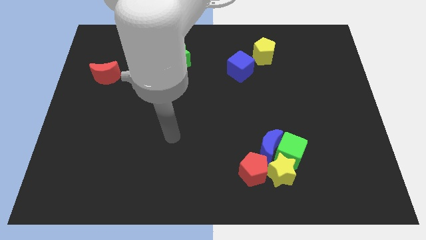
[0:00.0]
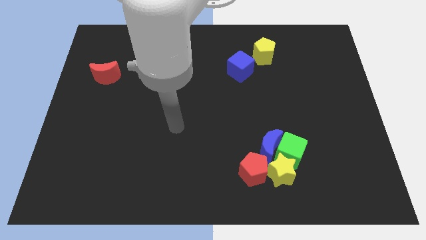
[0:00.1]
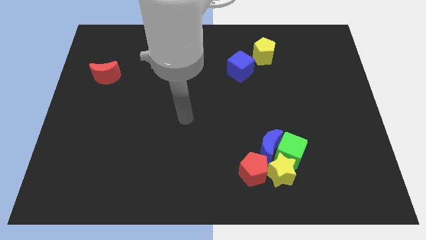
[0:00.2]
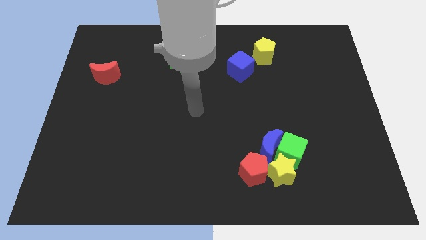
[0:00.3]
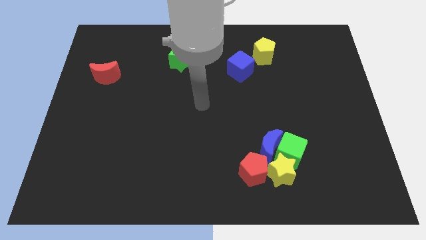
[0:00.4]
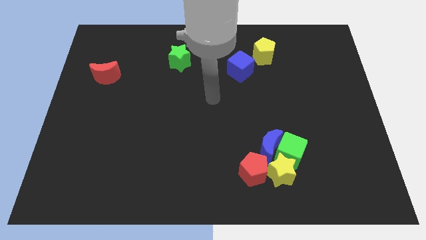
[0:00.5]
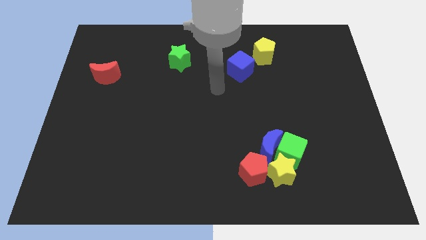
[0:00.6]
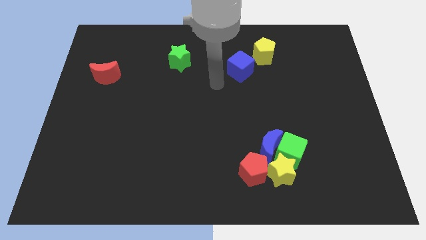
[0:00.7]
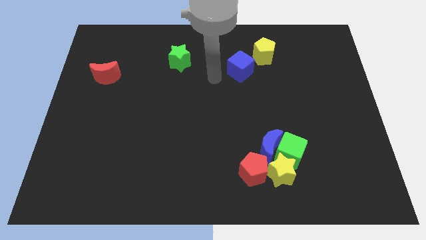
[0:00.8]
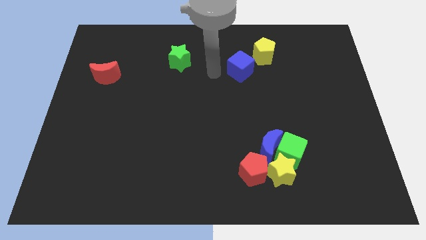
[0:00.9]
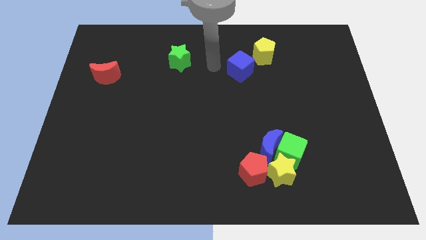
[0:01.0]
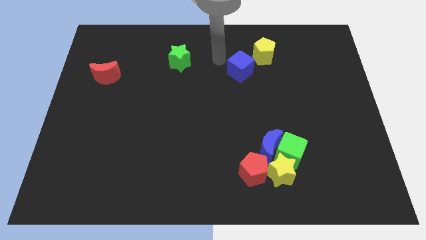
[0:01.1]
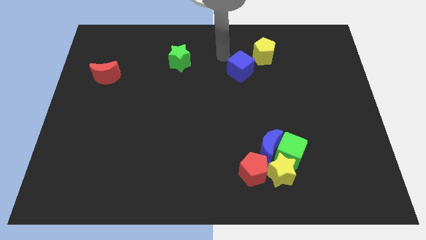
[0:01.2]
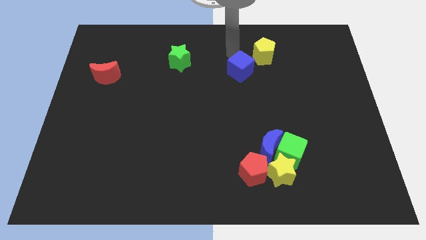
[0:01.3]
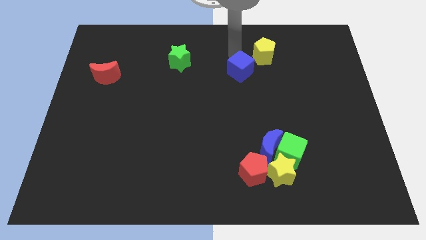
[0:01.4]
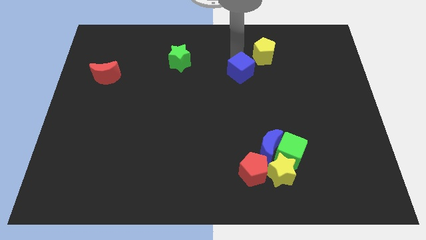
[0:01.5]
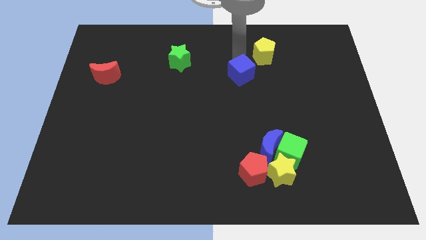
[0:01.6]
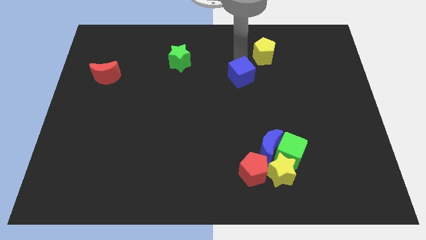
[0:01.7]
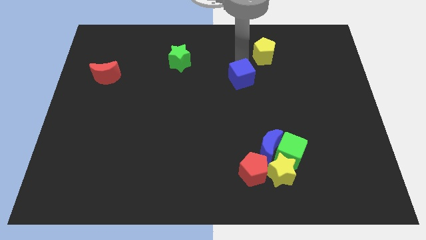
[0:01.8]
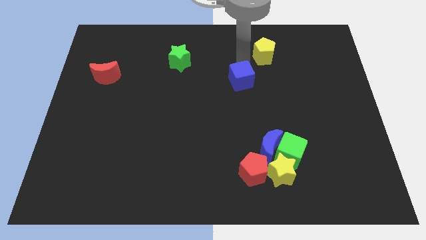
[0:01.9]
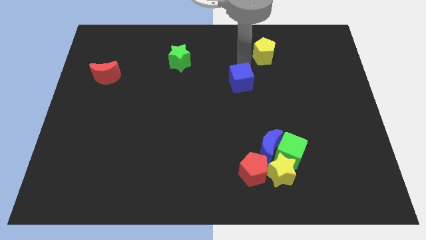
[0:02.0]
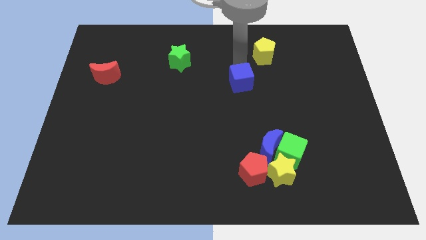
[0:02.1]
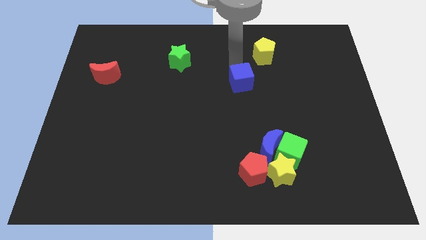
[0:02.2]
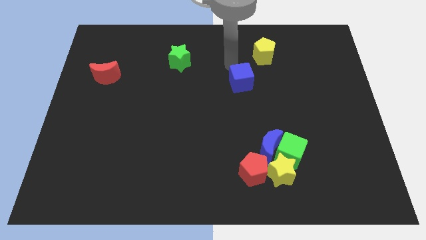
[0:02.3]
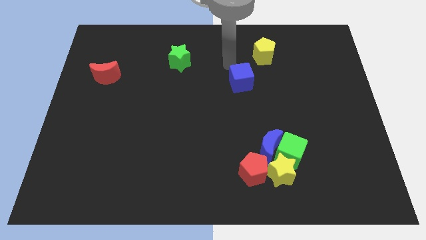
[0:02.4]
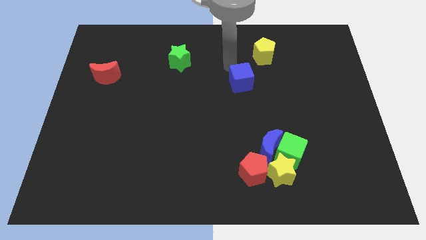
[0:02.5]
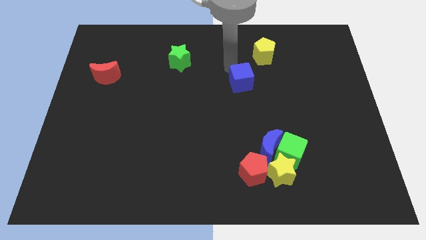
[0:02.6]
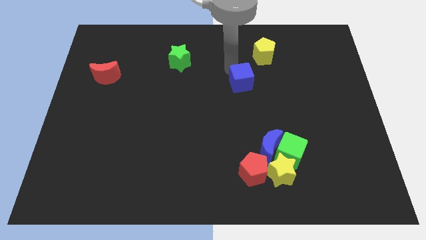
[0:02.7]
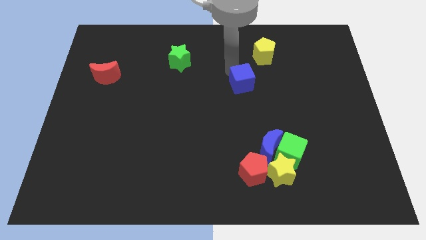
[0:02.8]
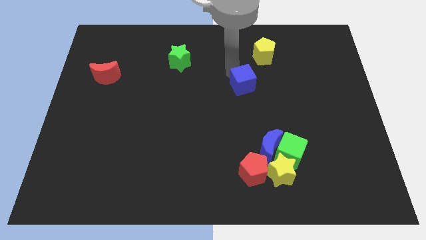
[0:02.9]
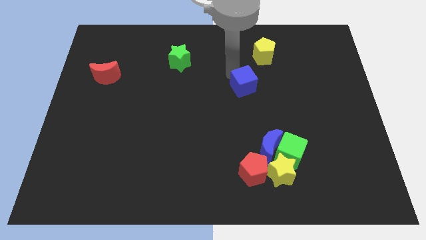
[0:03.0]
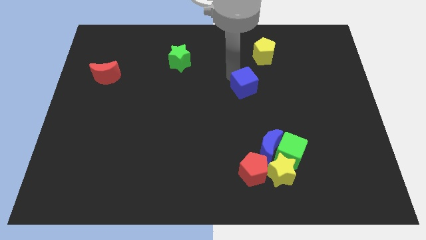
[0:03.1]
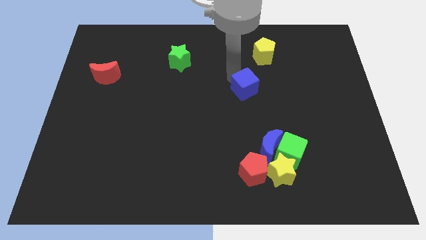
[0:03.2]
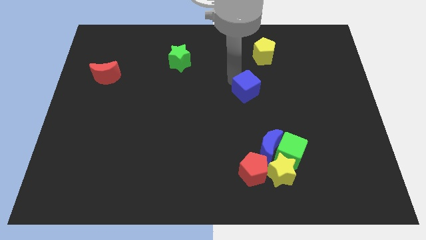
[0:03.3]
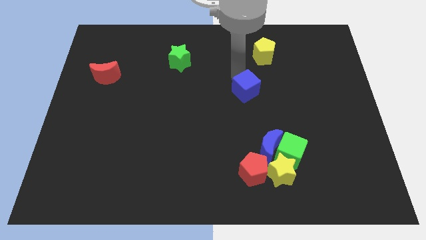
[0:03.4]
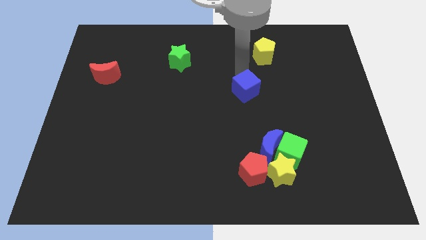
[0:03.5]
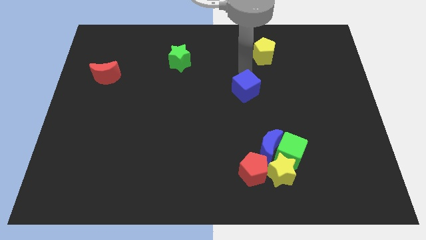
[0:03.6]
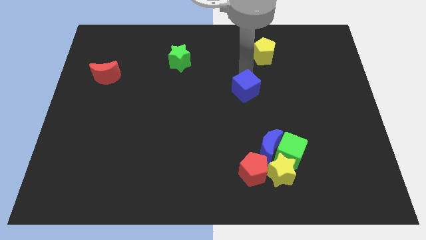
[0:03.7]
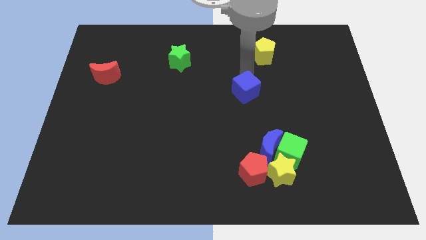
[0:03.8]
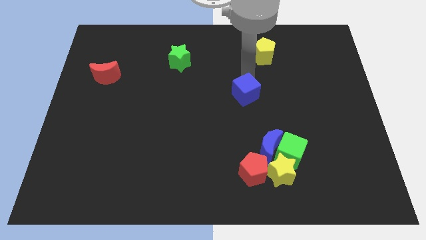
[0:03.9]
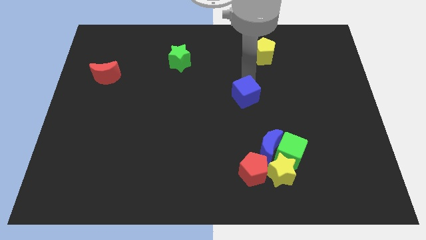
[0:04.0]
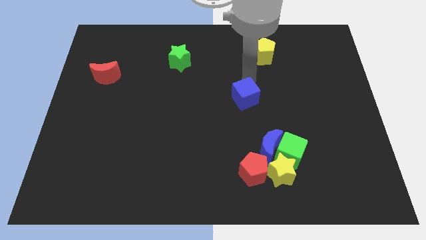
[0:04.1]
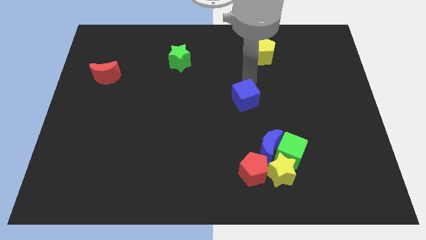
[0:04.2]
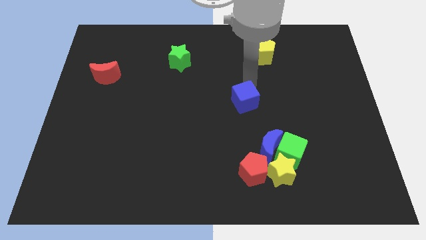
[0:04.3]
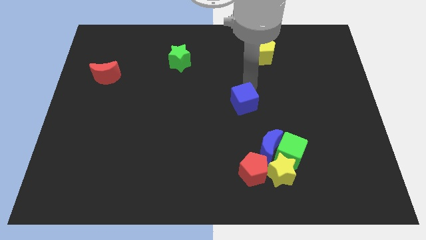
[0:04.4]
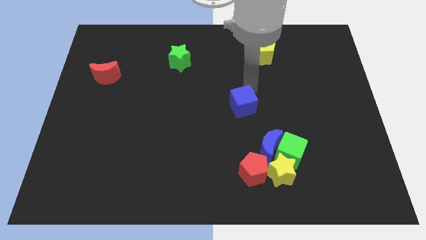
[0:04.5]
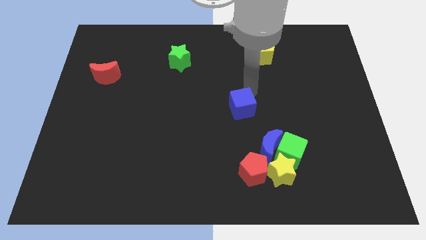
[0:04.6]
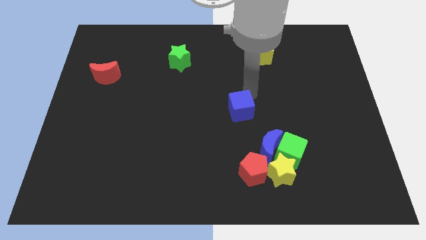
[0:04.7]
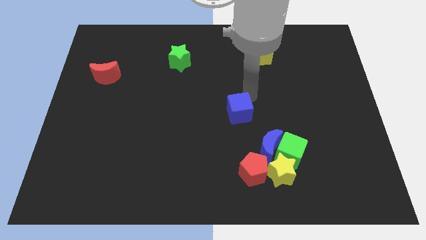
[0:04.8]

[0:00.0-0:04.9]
put the blue cube to the top side of the red pentagon

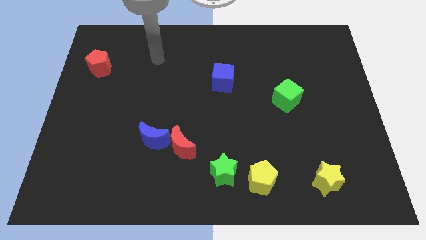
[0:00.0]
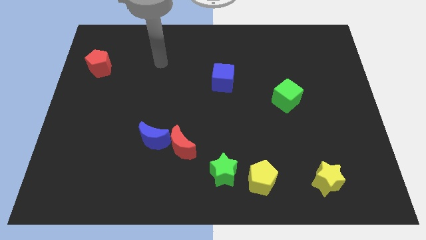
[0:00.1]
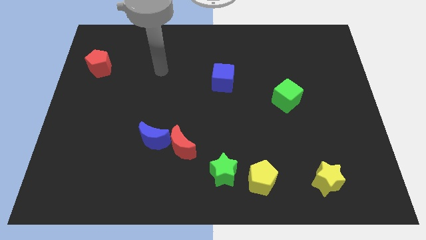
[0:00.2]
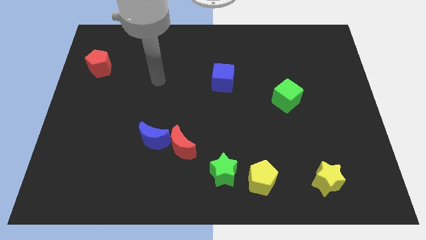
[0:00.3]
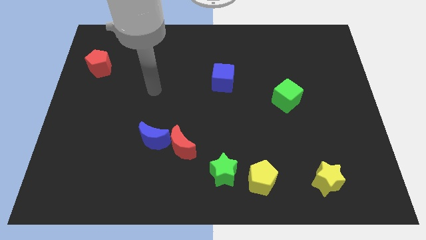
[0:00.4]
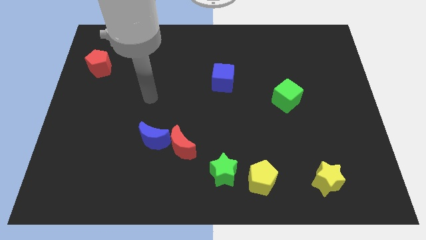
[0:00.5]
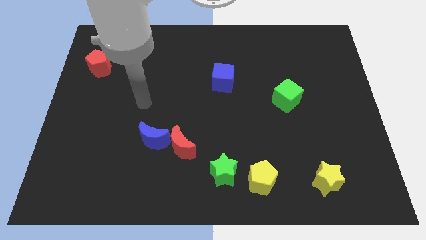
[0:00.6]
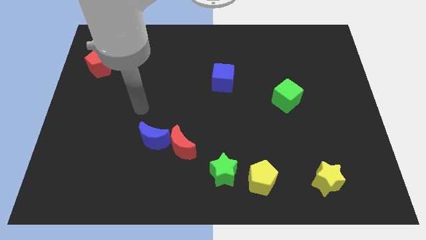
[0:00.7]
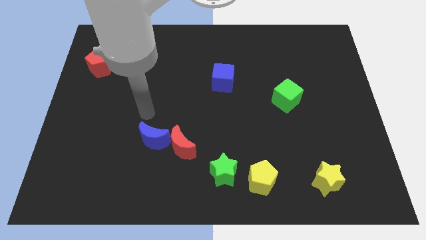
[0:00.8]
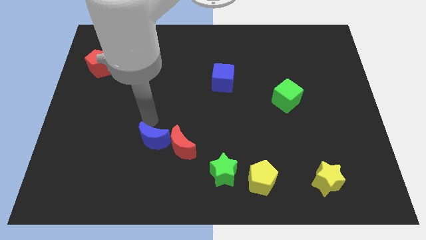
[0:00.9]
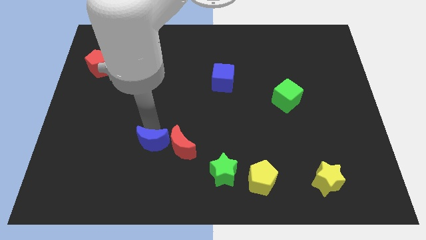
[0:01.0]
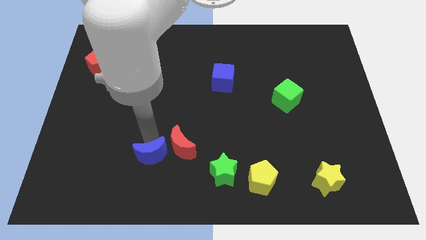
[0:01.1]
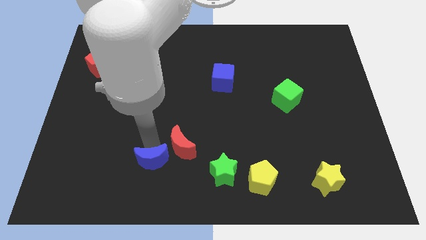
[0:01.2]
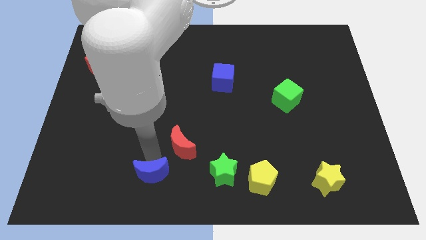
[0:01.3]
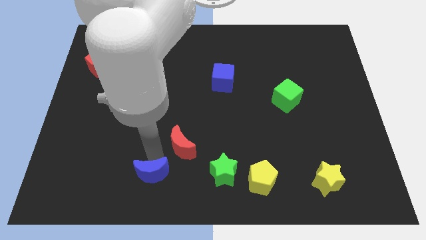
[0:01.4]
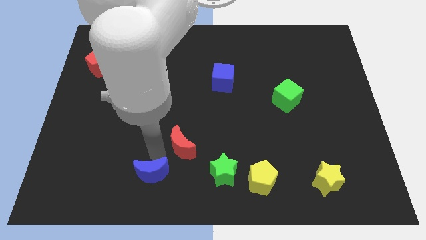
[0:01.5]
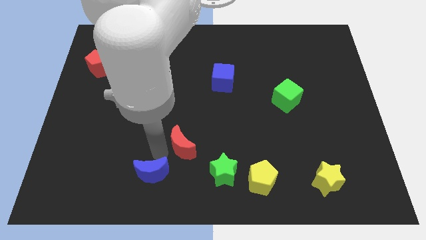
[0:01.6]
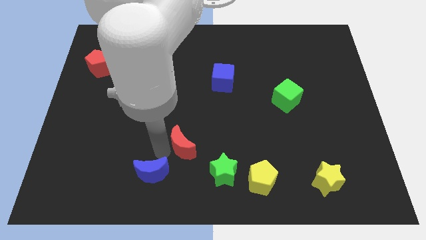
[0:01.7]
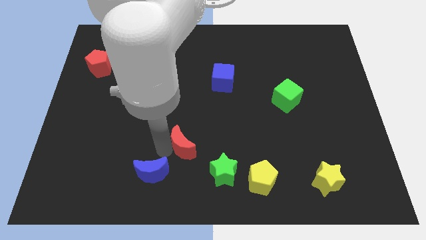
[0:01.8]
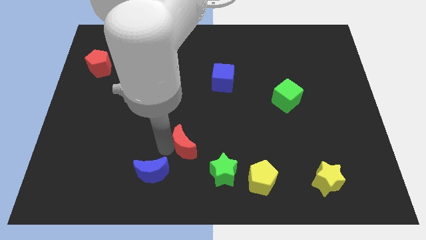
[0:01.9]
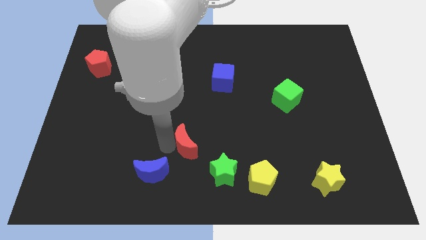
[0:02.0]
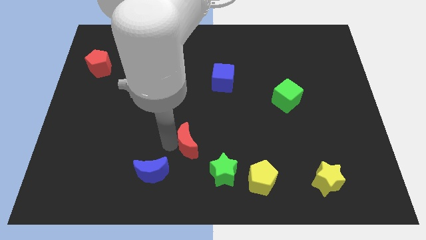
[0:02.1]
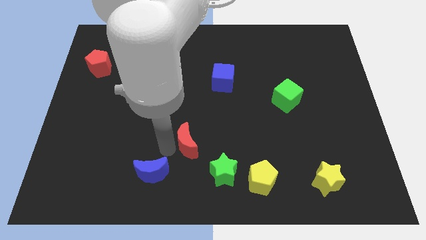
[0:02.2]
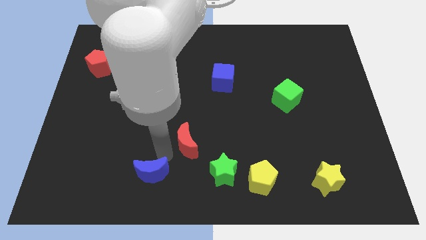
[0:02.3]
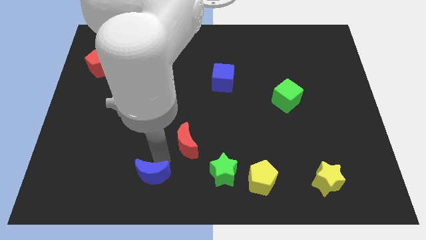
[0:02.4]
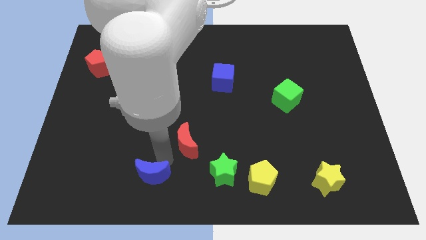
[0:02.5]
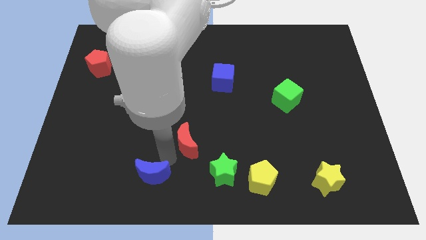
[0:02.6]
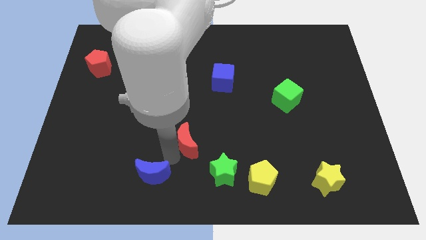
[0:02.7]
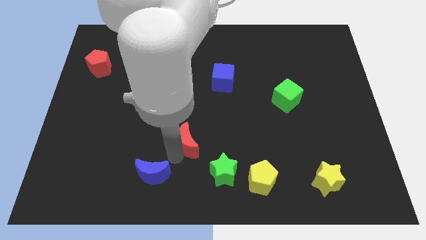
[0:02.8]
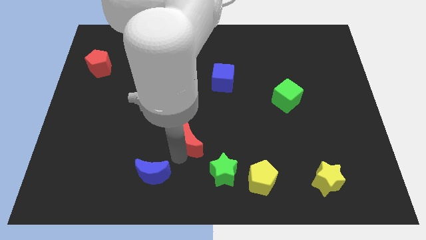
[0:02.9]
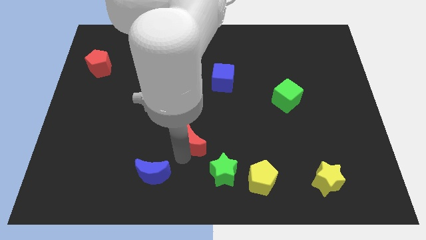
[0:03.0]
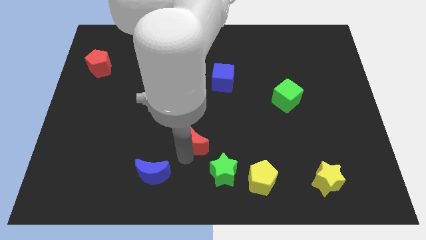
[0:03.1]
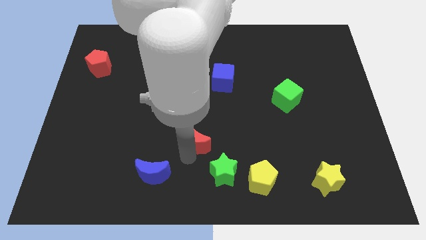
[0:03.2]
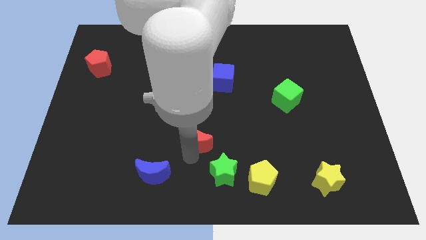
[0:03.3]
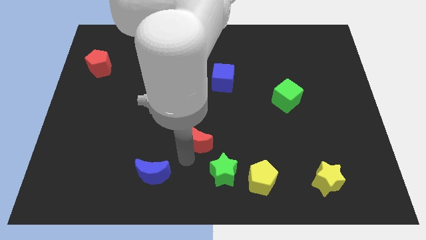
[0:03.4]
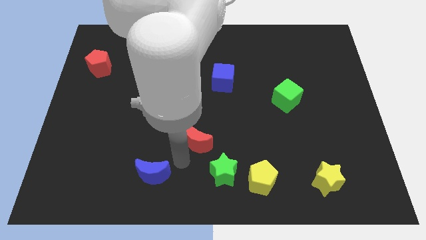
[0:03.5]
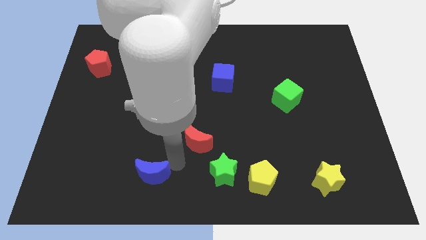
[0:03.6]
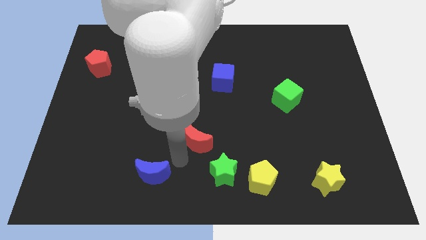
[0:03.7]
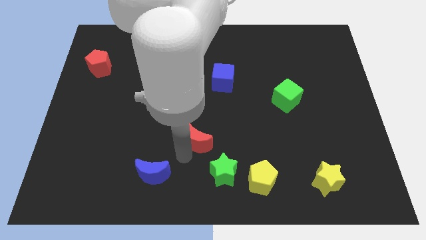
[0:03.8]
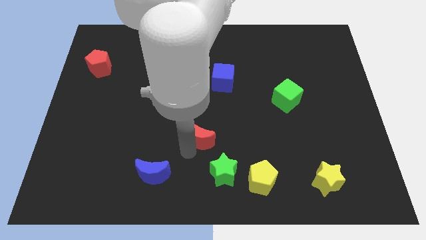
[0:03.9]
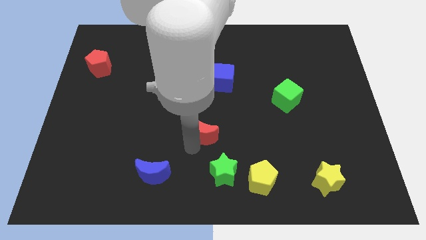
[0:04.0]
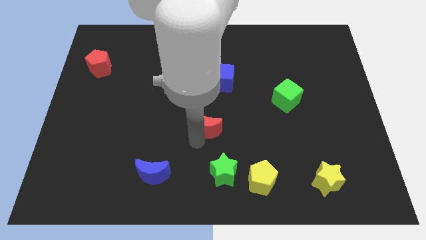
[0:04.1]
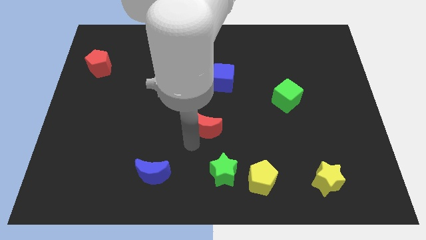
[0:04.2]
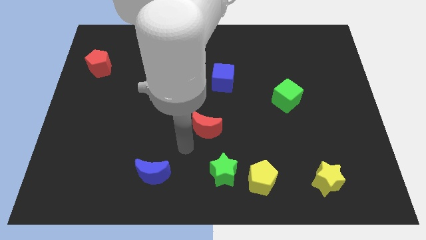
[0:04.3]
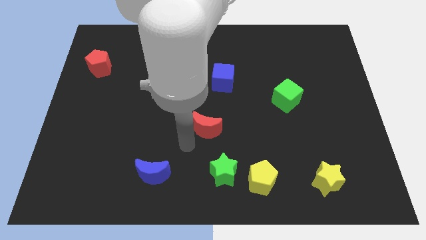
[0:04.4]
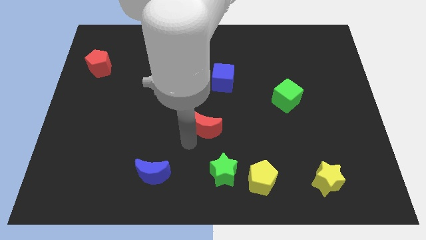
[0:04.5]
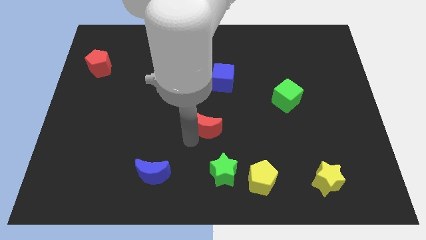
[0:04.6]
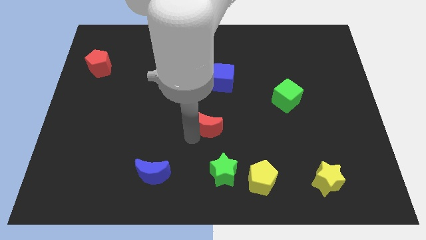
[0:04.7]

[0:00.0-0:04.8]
push the red moon to the bottom side of the blue cube
